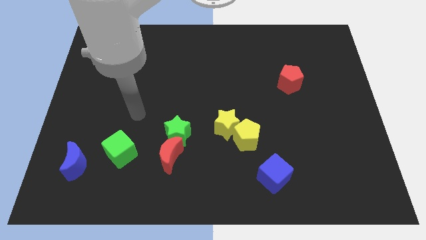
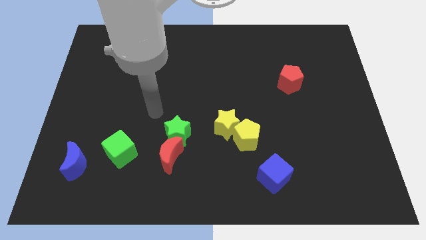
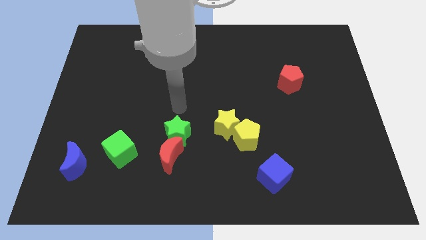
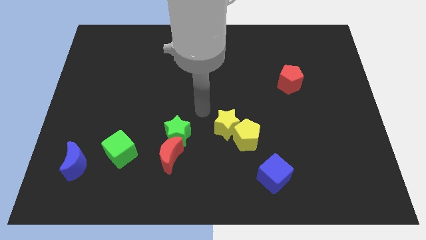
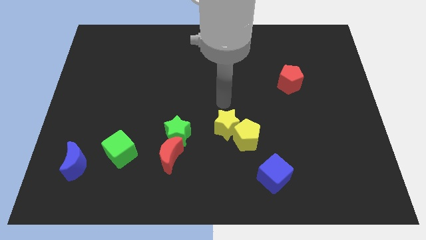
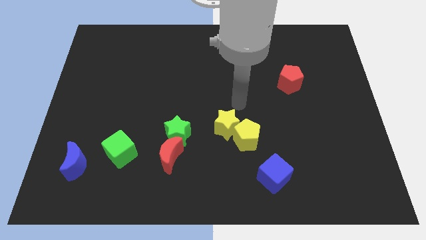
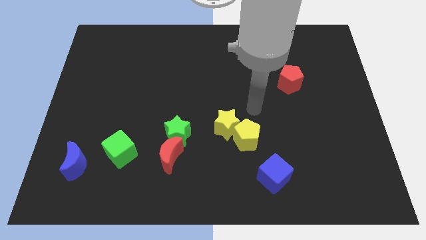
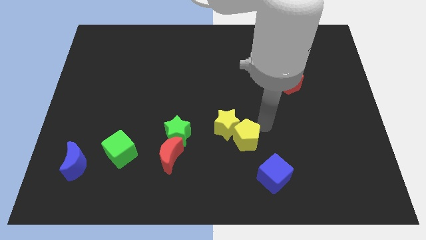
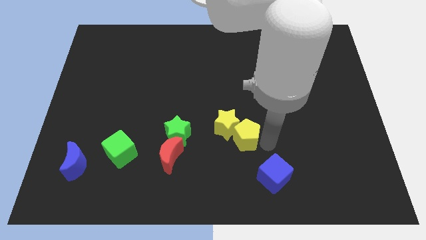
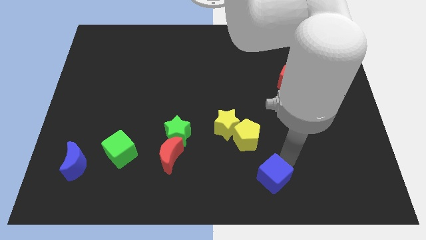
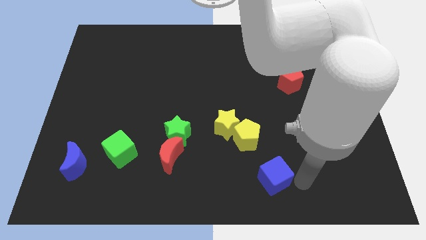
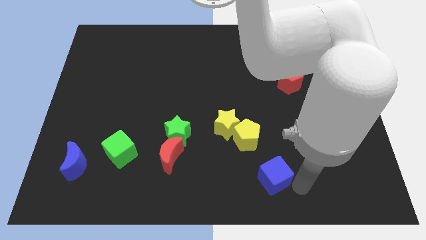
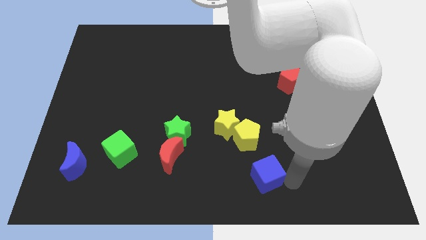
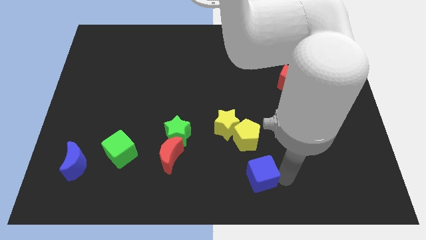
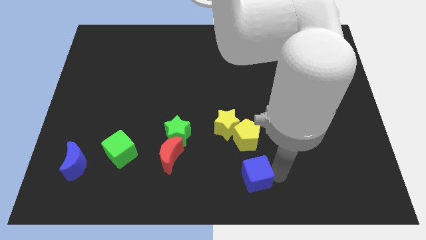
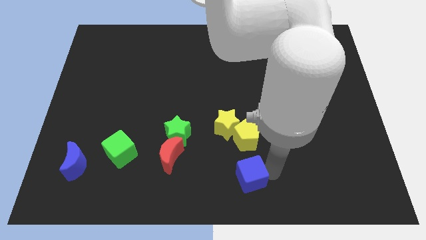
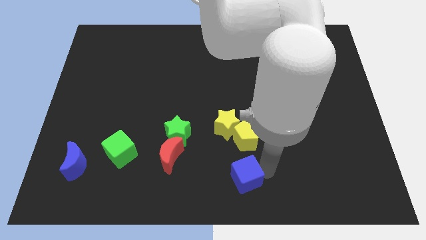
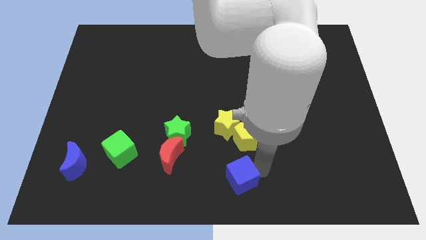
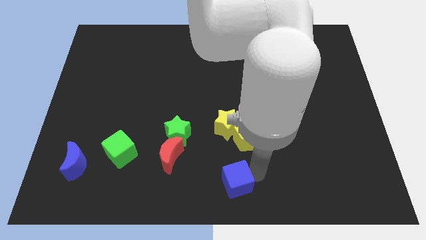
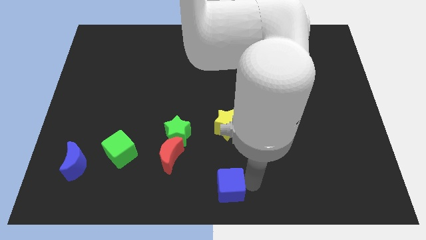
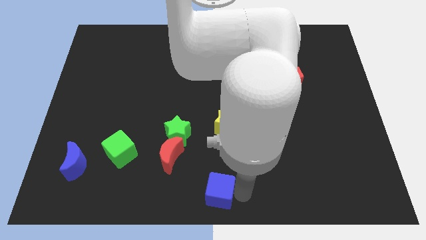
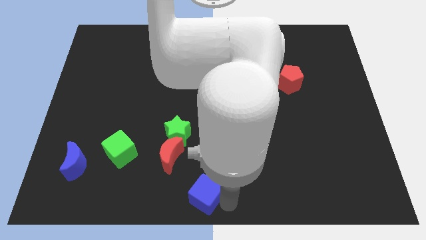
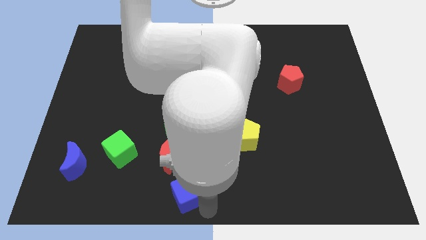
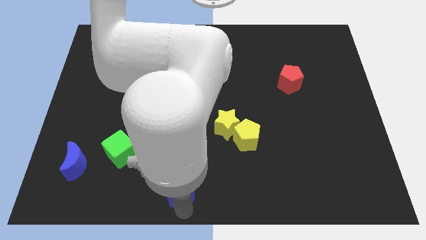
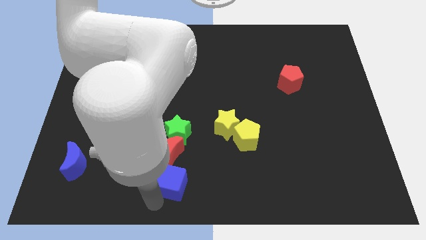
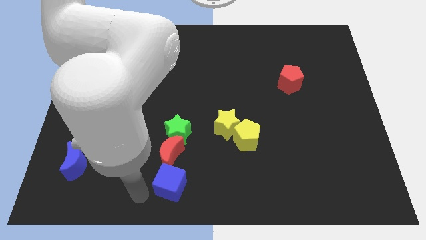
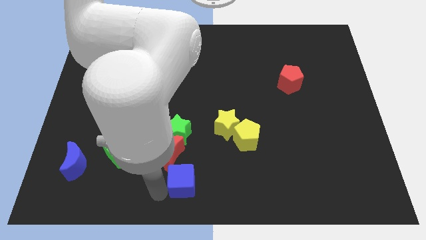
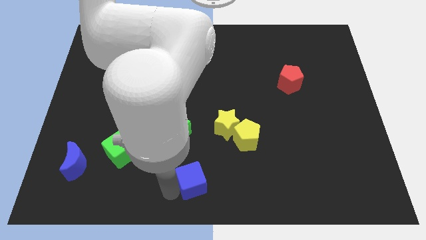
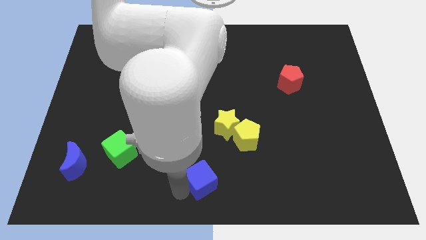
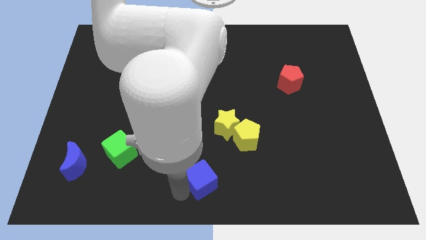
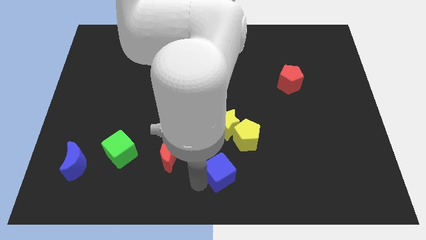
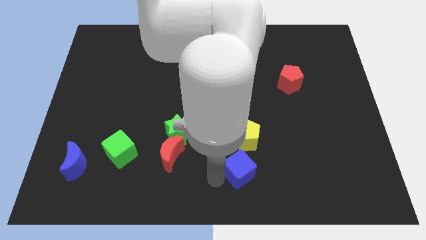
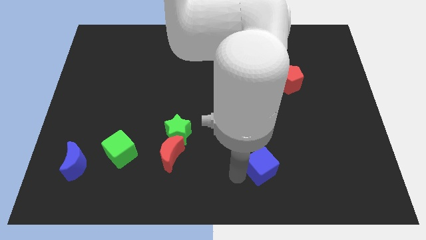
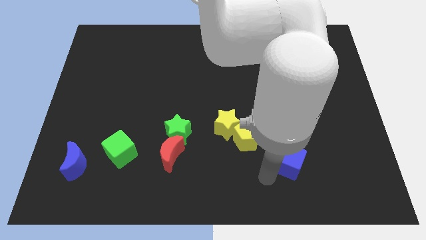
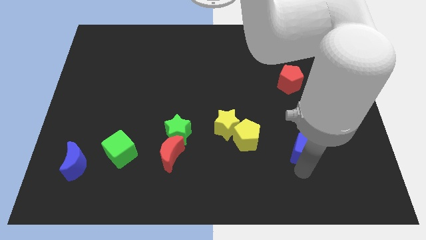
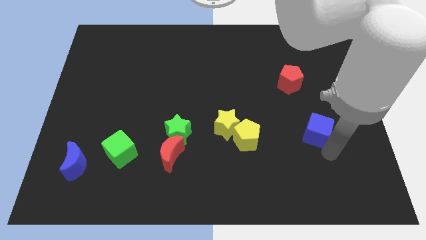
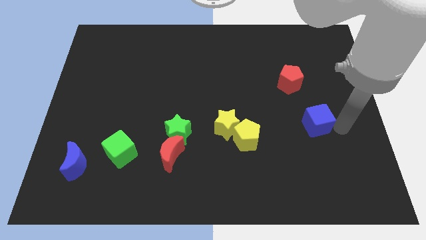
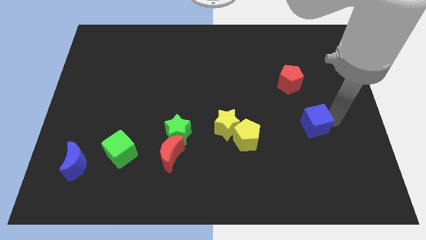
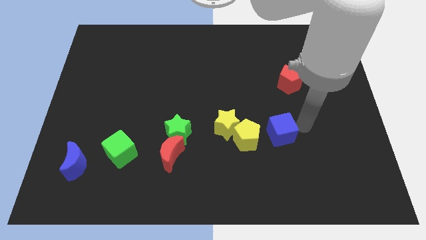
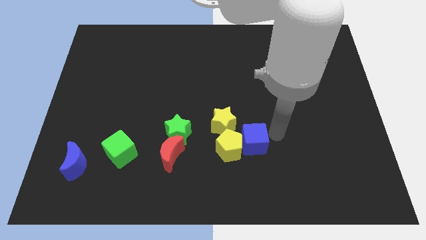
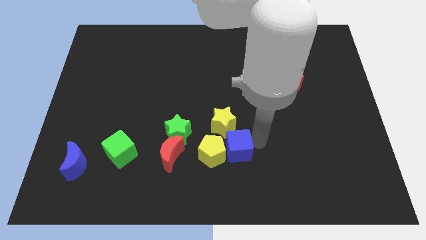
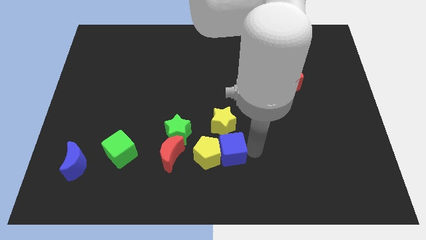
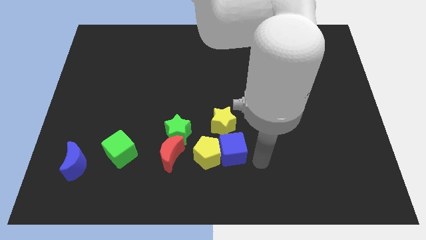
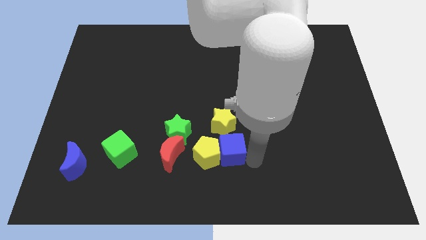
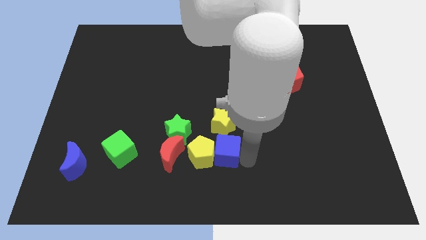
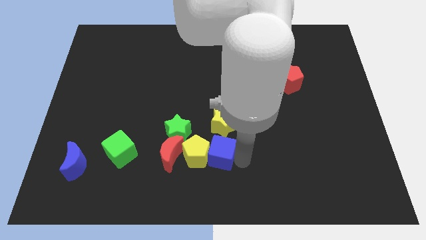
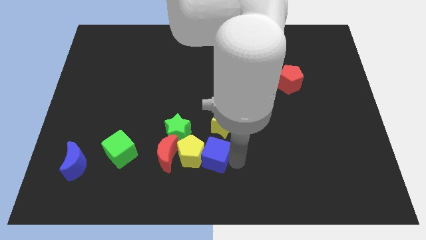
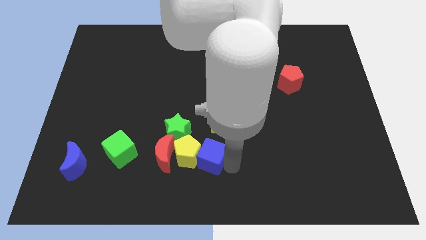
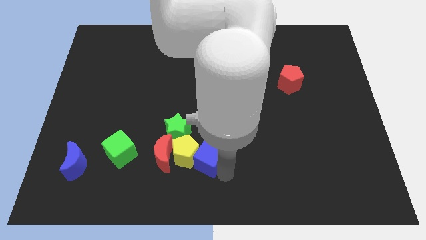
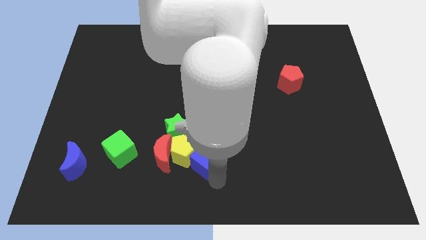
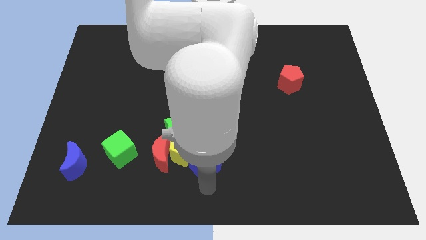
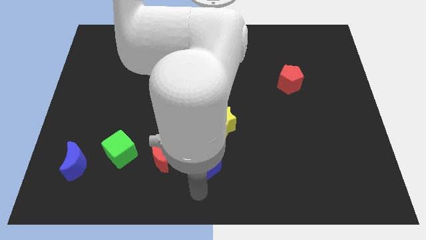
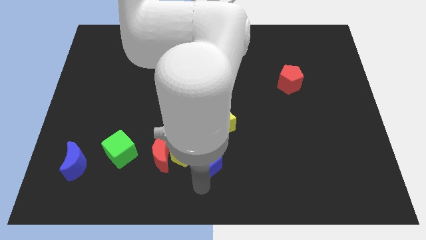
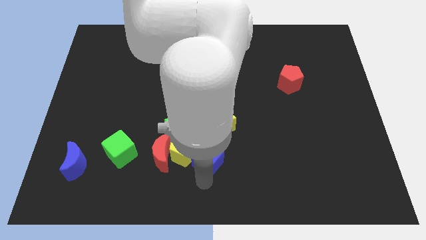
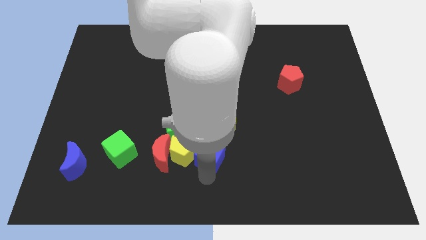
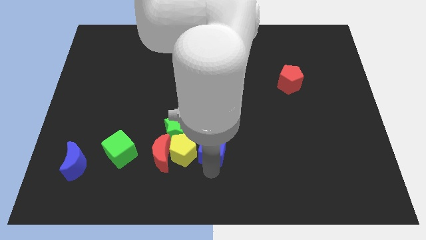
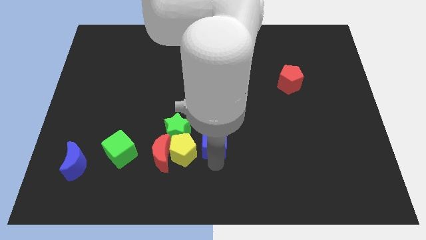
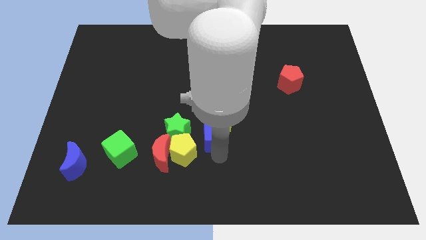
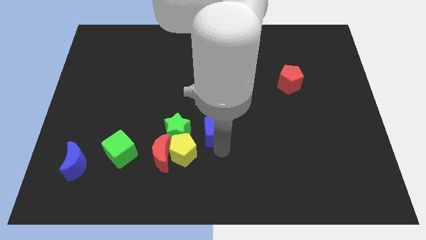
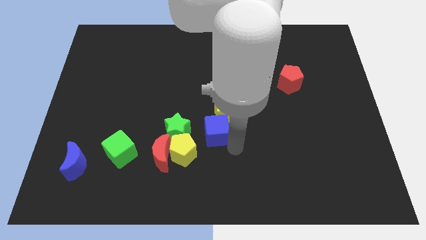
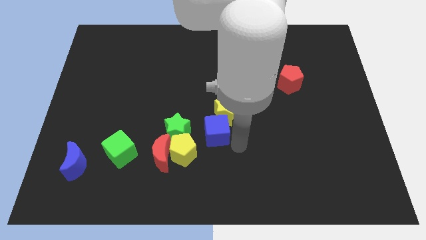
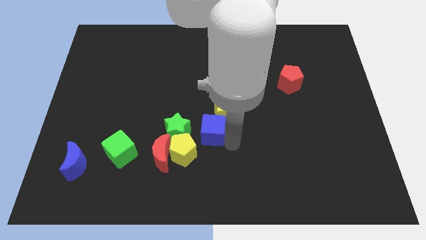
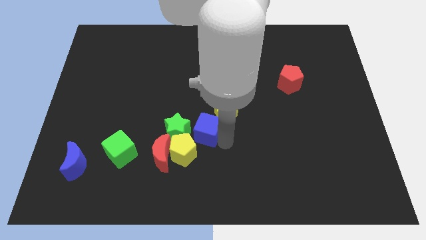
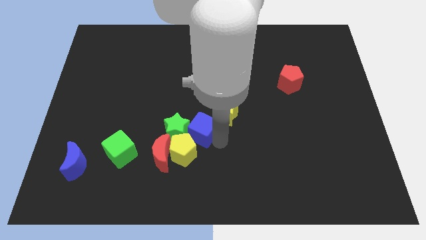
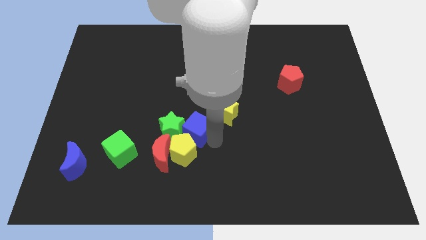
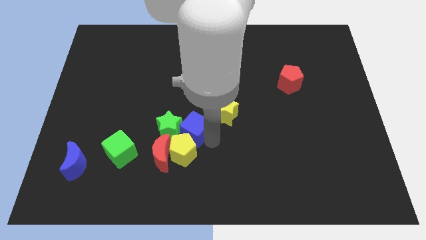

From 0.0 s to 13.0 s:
push the blue cube to the left side of the yellow star

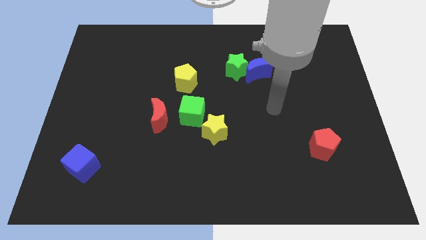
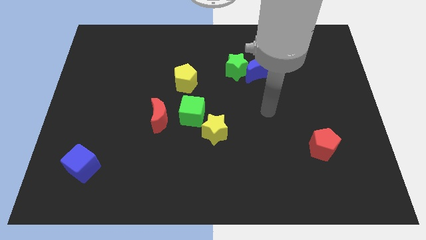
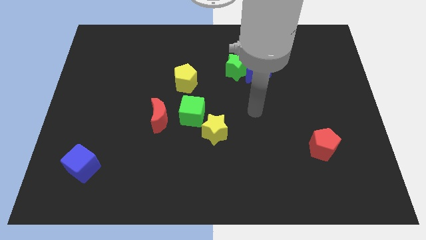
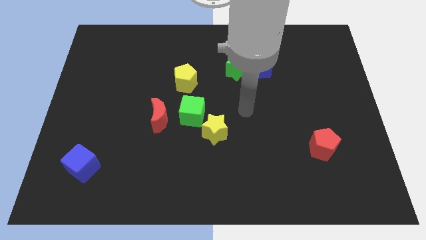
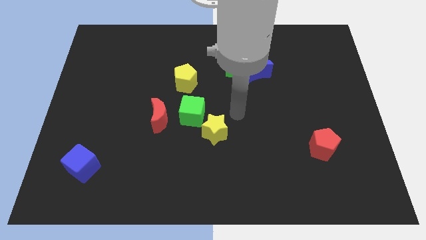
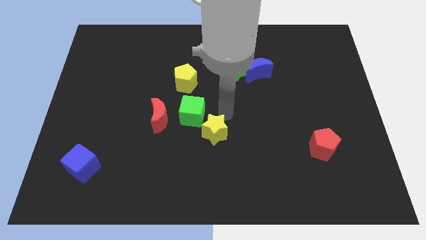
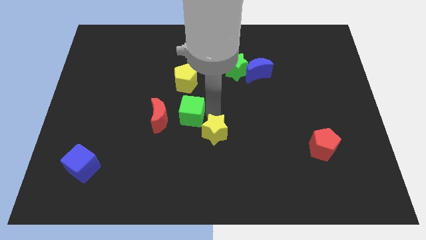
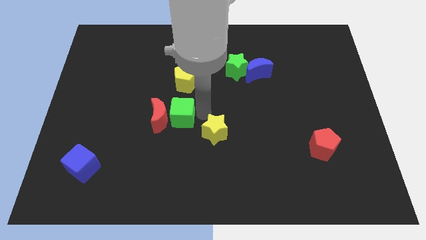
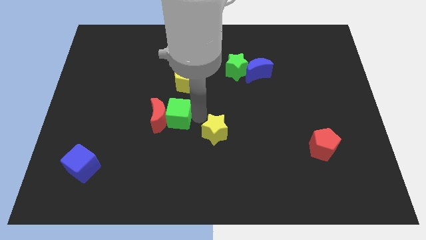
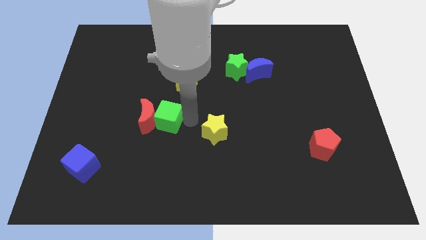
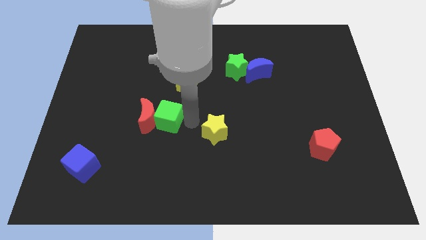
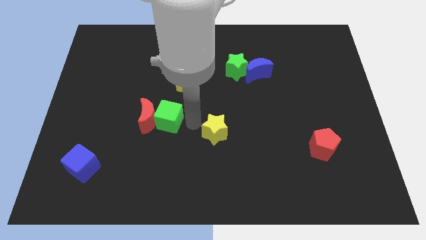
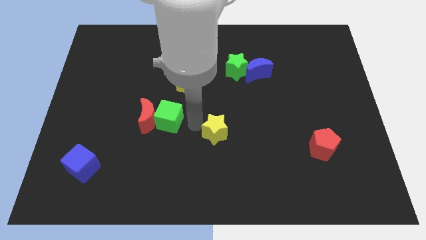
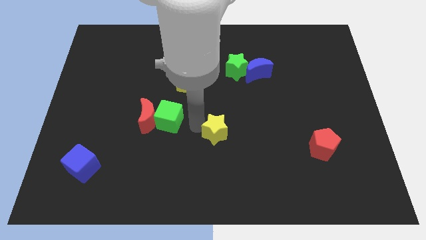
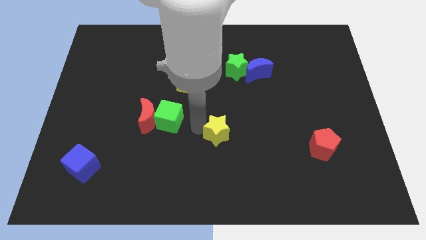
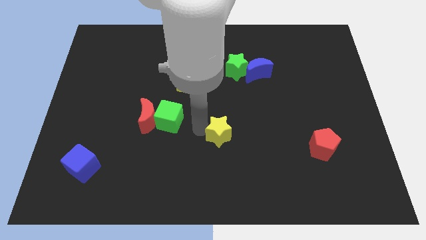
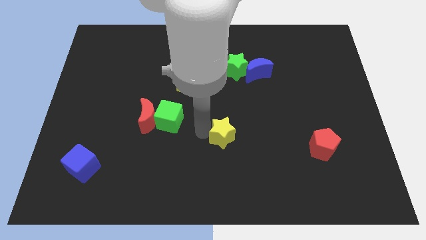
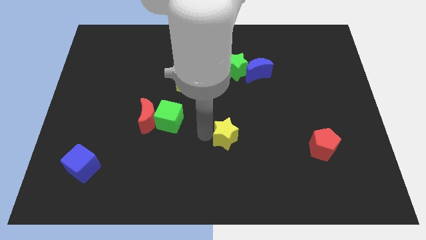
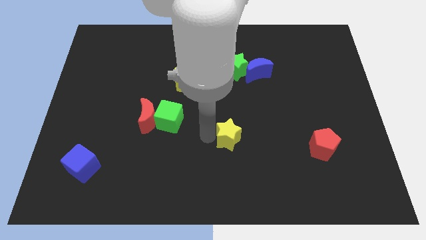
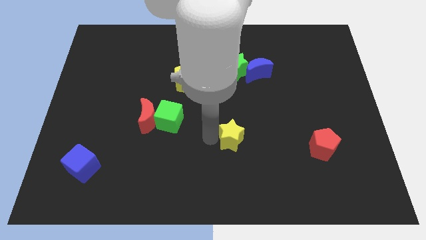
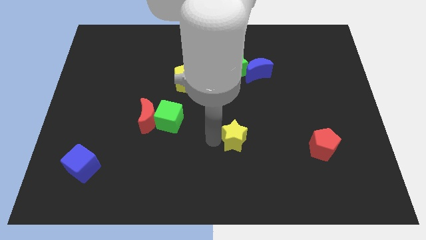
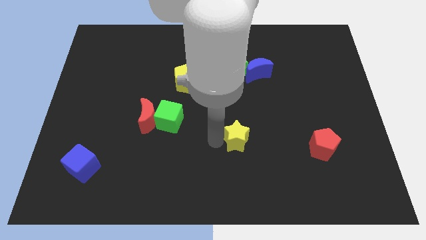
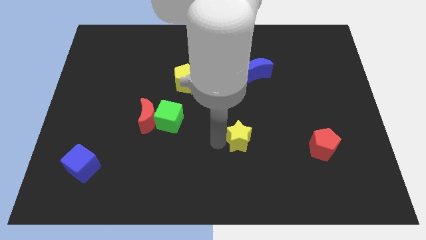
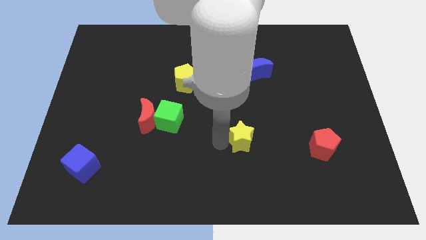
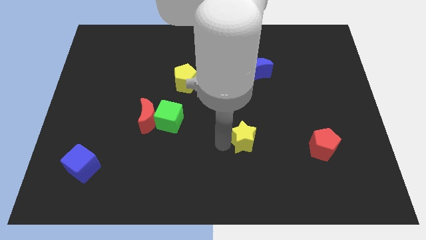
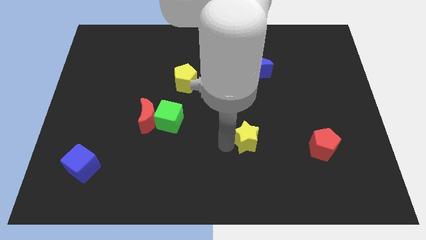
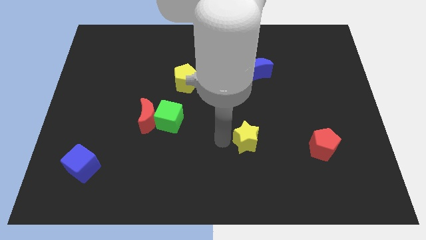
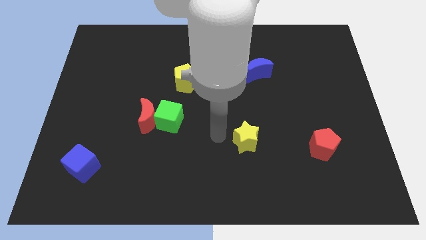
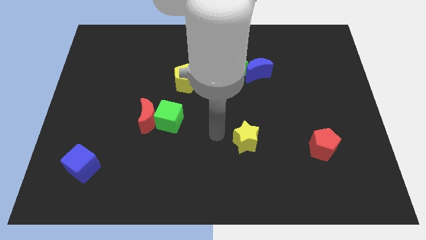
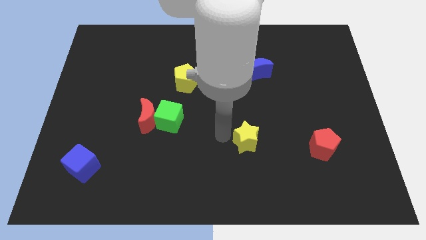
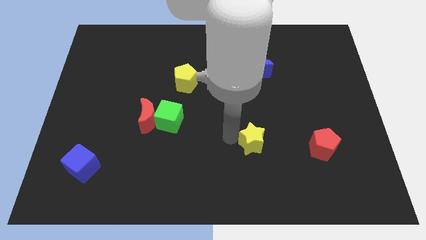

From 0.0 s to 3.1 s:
push the yellow star to the left side of the red pentagon
